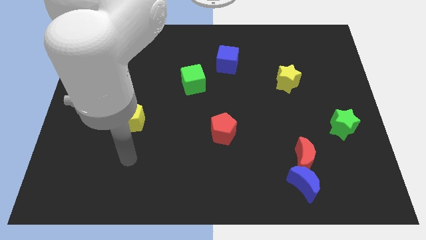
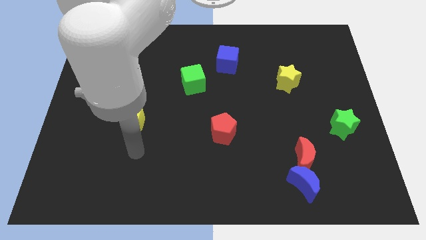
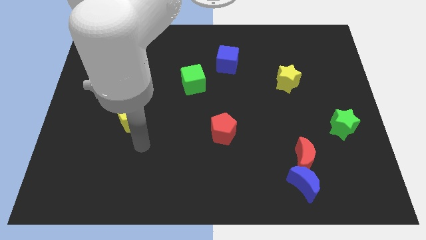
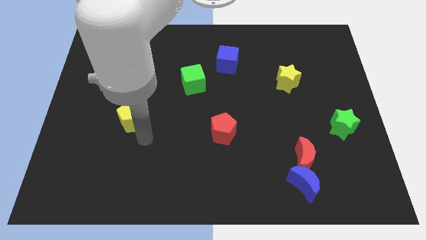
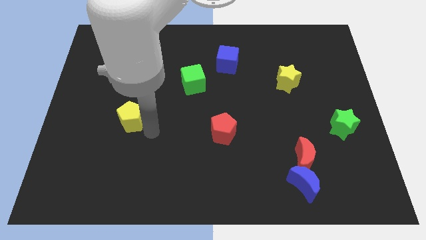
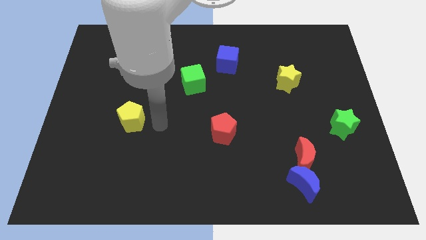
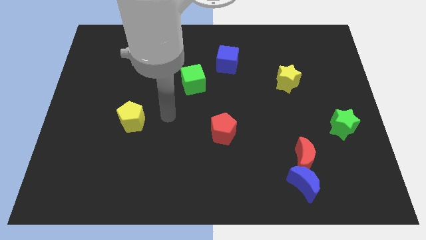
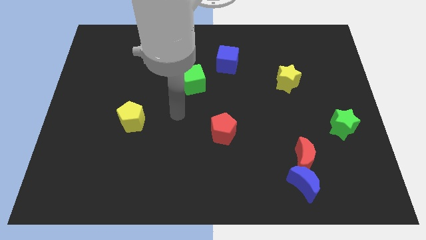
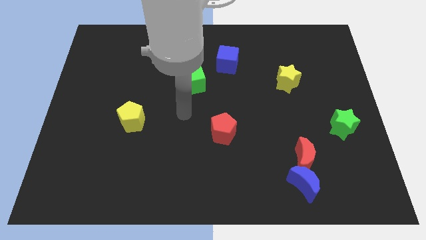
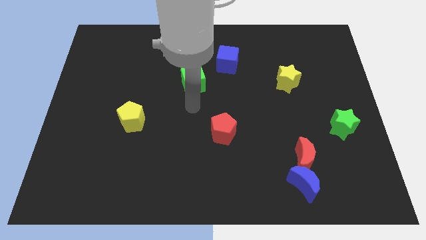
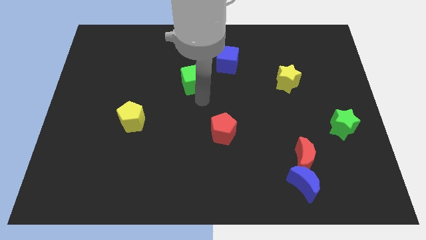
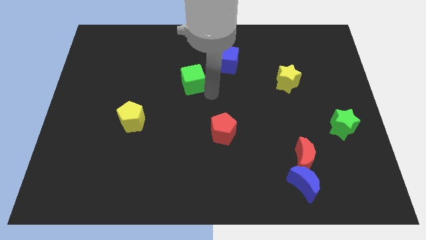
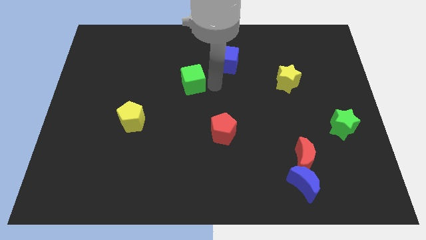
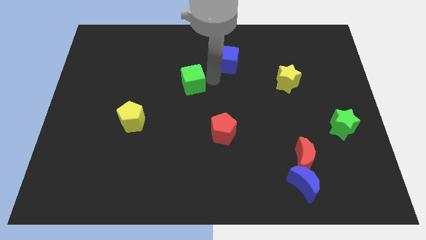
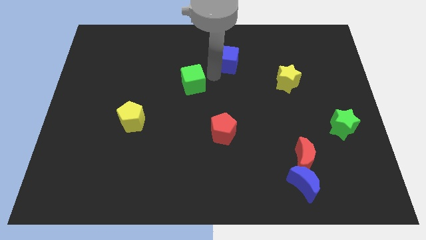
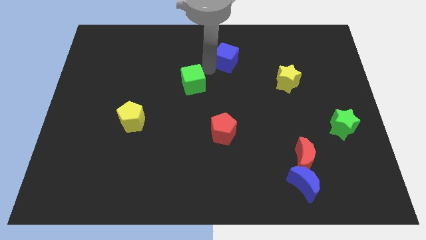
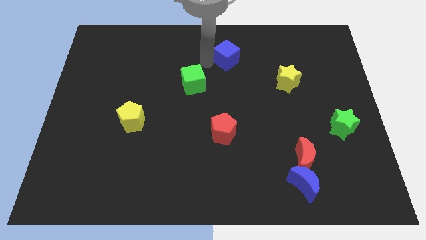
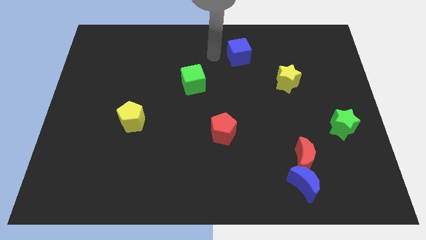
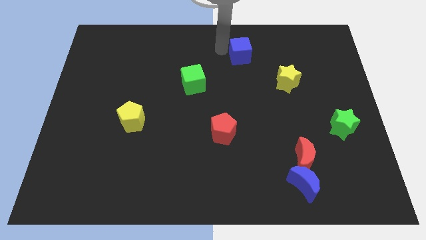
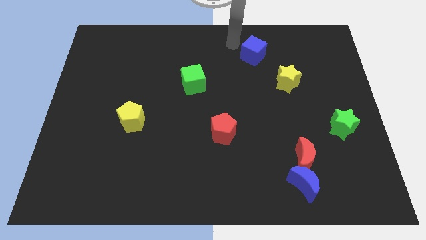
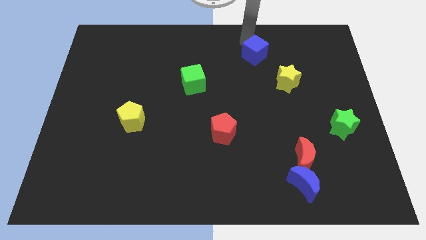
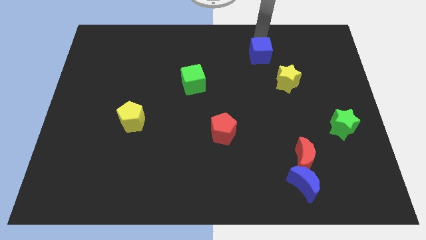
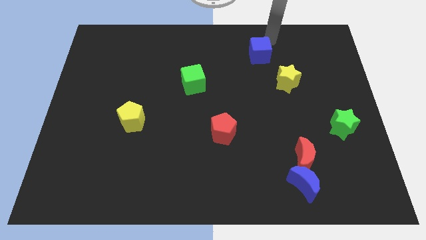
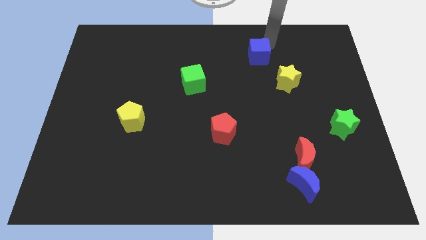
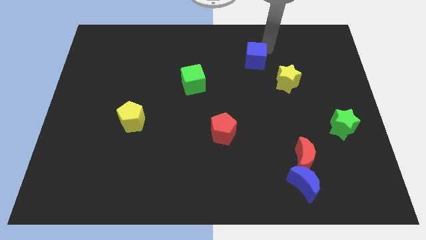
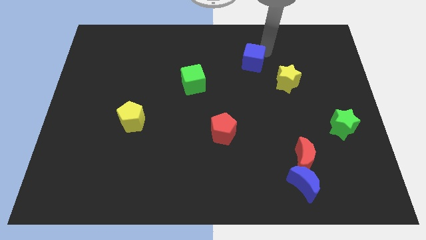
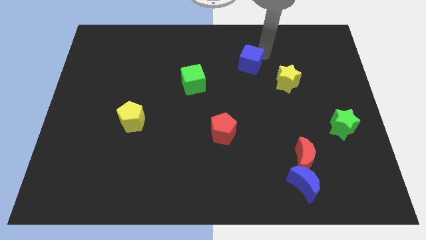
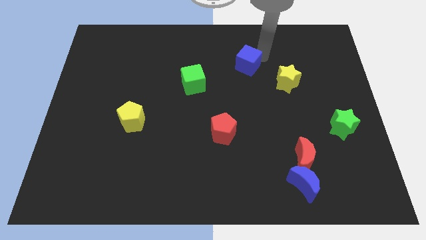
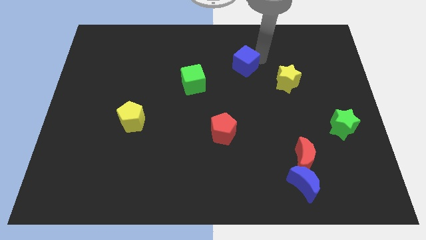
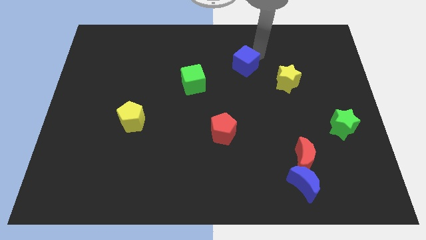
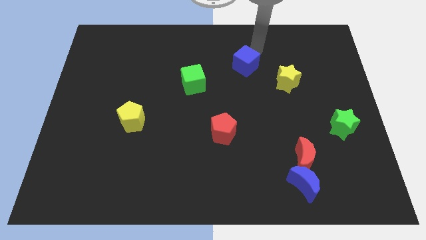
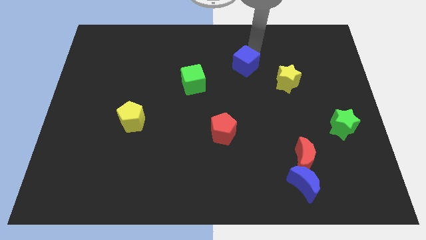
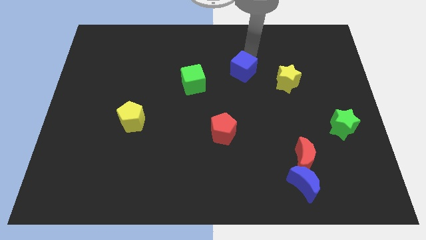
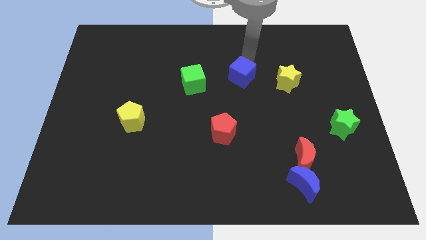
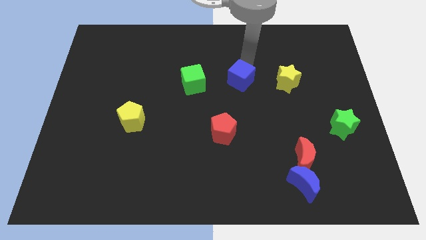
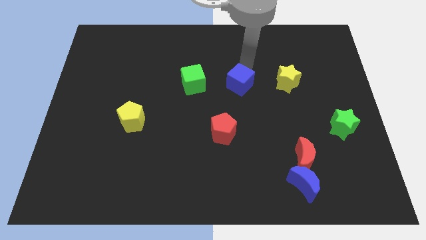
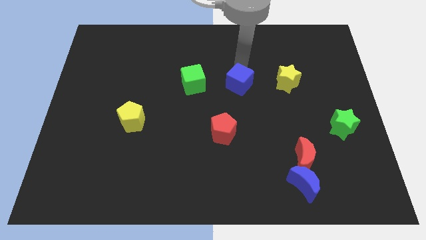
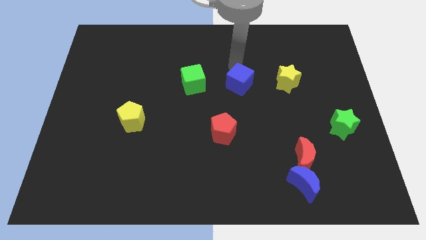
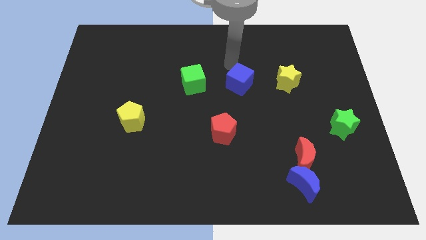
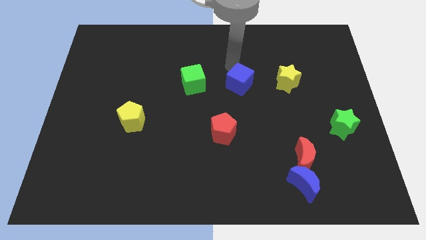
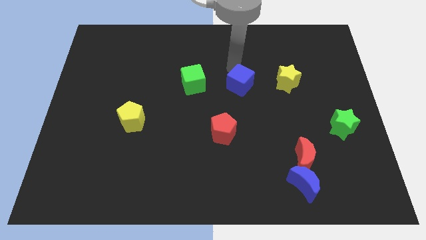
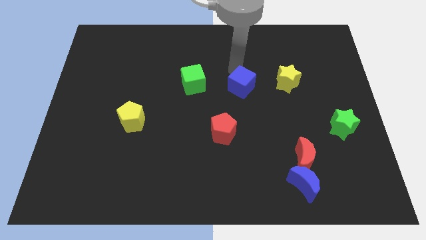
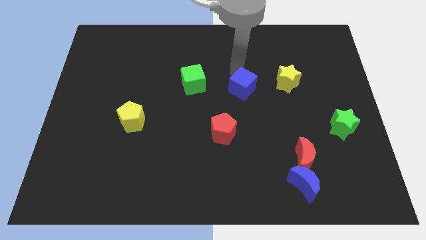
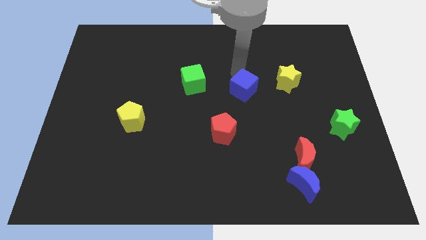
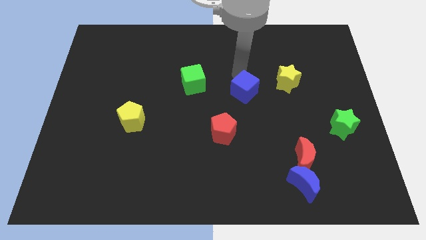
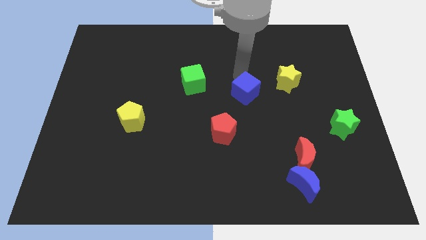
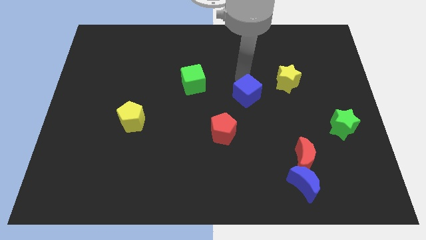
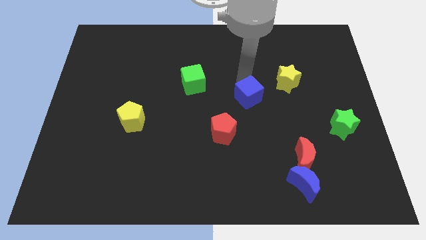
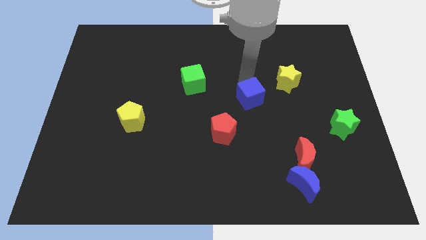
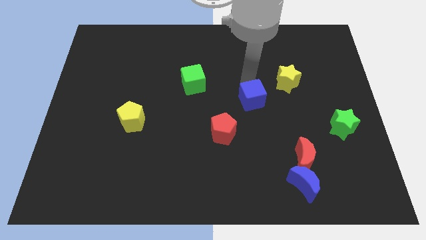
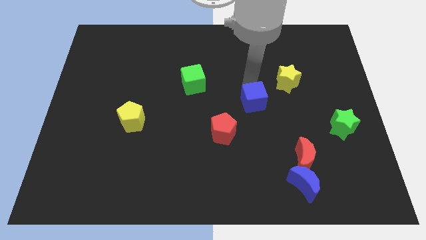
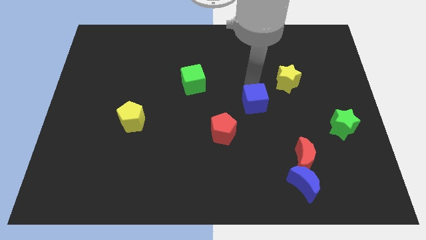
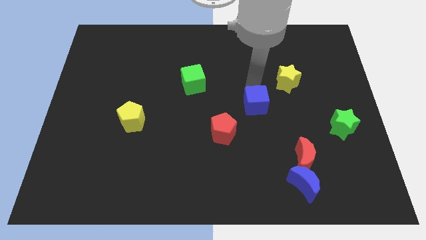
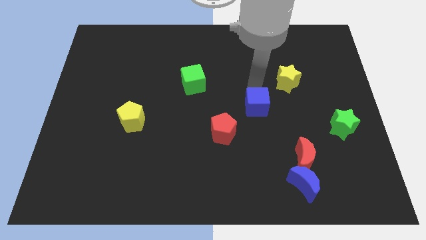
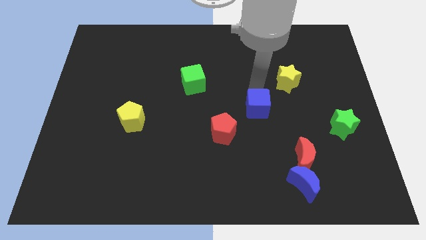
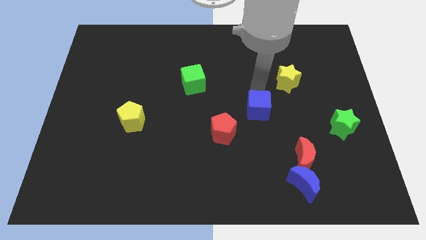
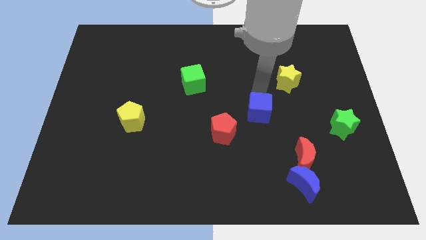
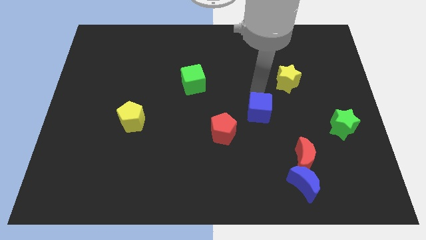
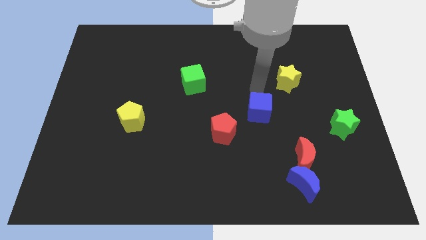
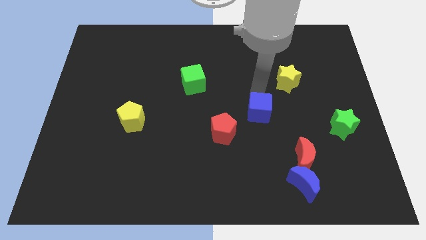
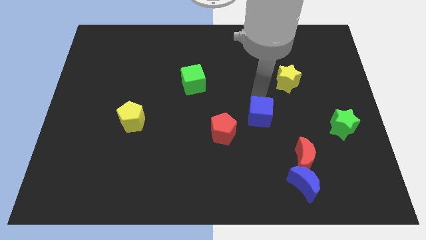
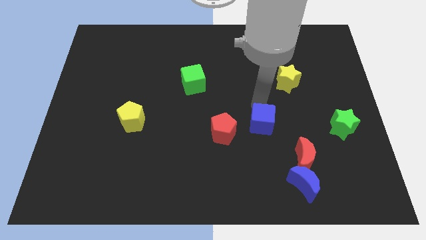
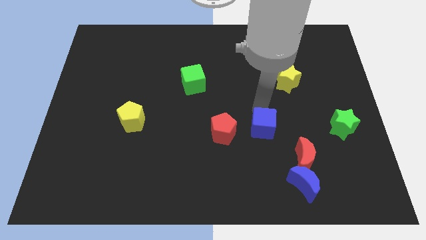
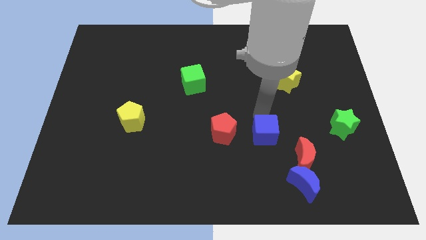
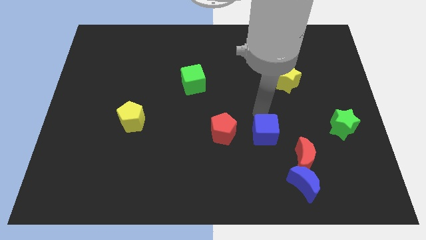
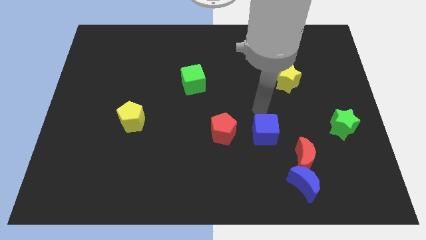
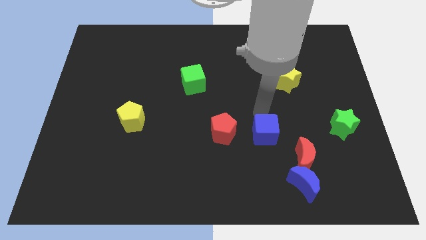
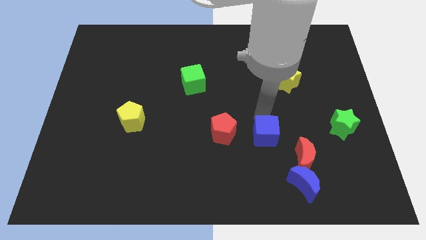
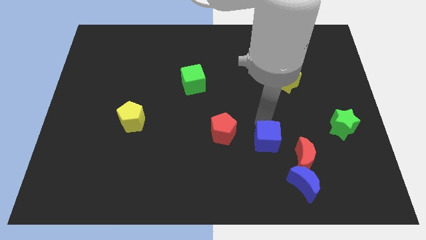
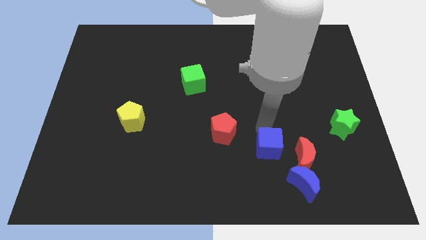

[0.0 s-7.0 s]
move the blue cube diagonally up and to the left of the blue moon
